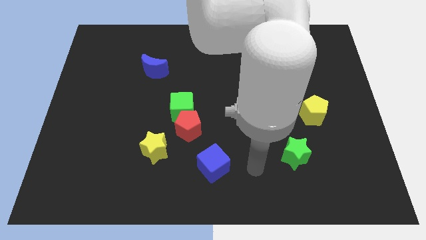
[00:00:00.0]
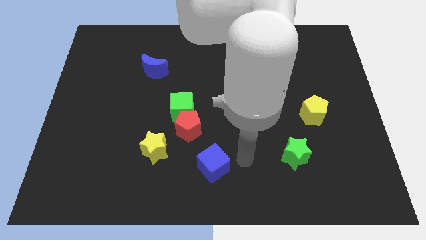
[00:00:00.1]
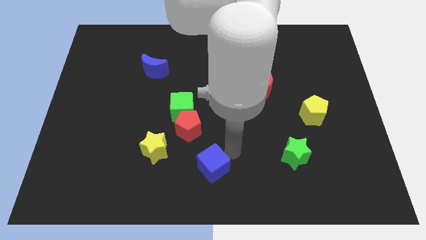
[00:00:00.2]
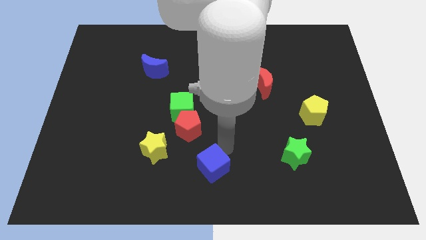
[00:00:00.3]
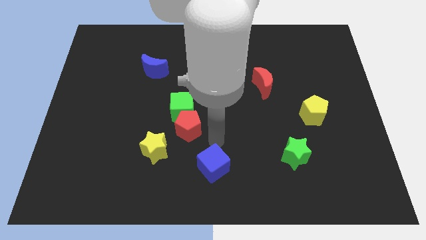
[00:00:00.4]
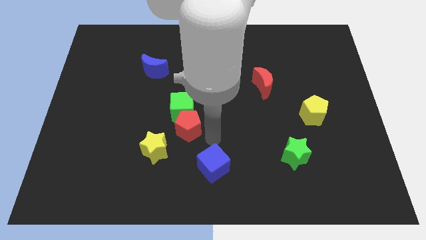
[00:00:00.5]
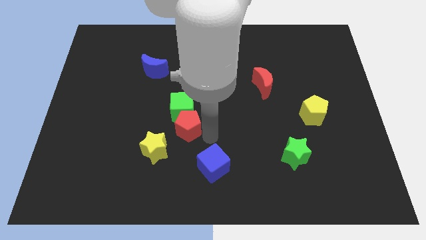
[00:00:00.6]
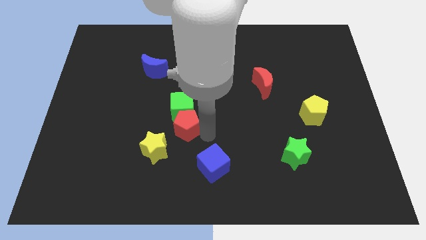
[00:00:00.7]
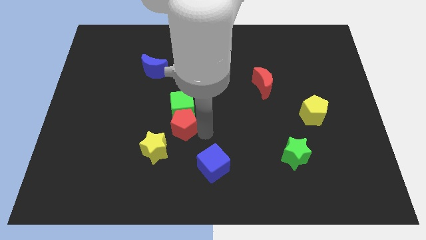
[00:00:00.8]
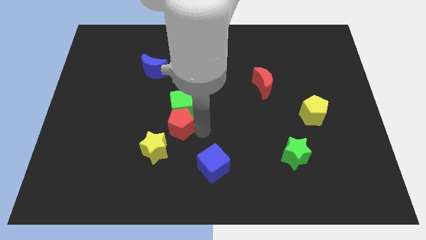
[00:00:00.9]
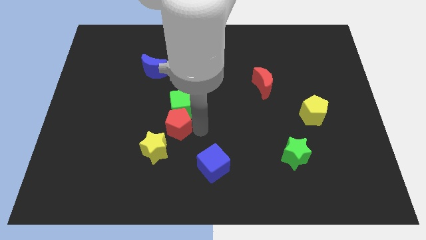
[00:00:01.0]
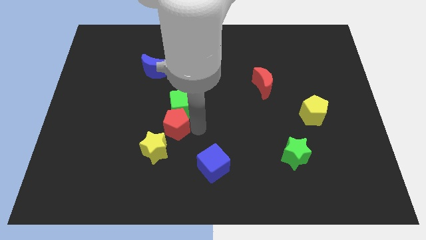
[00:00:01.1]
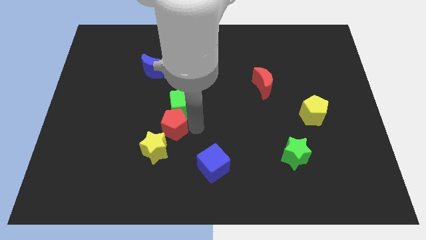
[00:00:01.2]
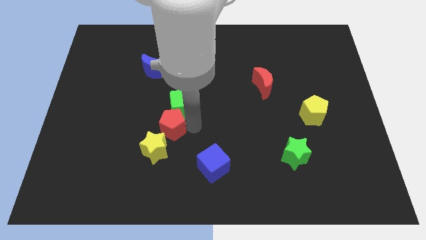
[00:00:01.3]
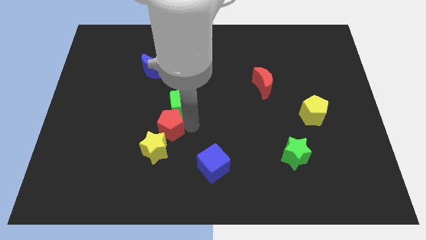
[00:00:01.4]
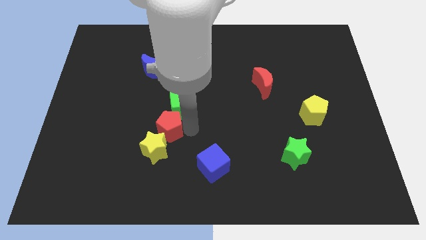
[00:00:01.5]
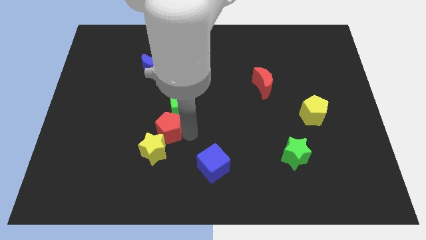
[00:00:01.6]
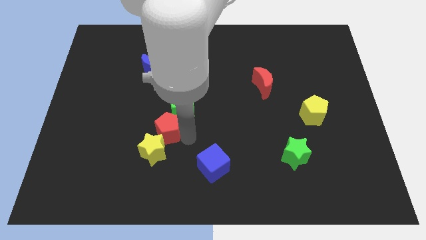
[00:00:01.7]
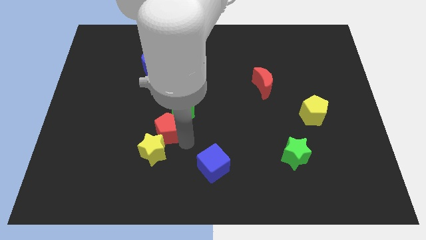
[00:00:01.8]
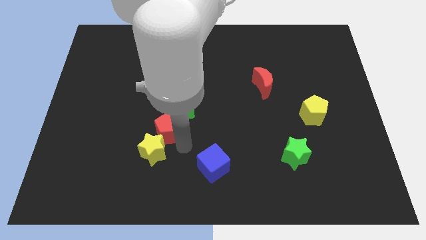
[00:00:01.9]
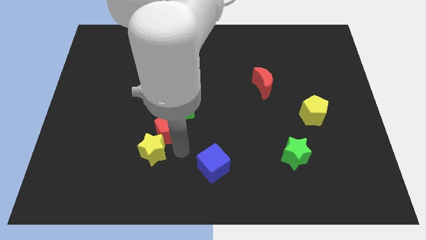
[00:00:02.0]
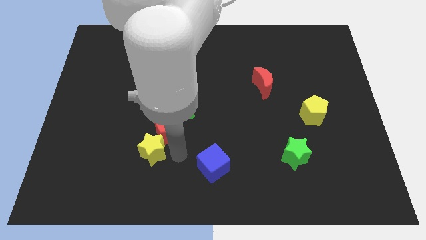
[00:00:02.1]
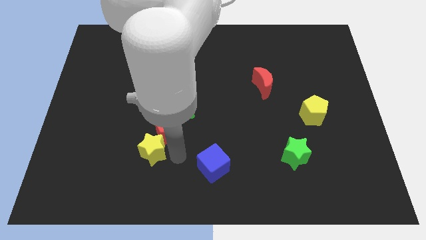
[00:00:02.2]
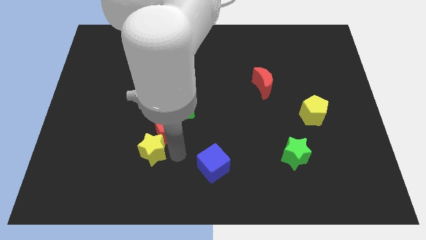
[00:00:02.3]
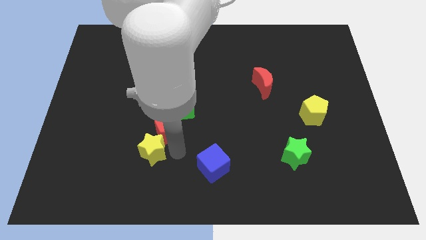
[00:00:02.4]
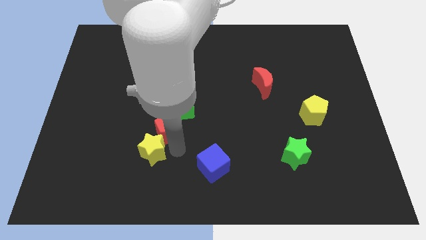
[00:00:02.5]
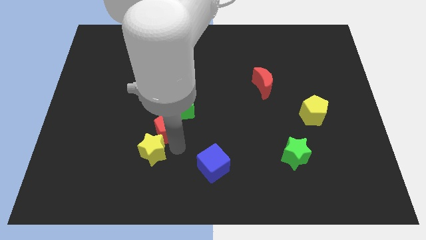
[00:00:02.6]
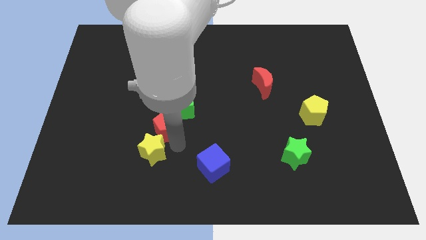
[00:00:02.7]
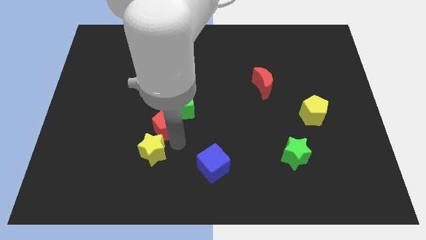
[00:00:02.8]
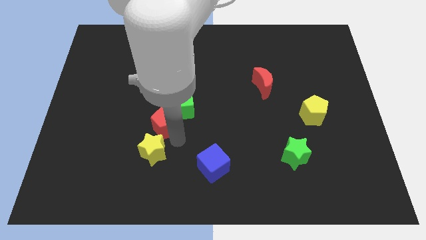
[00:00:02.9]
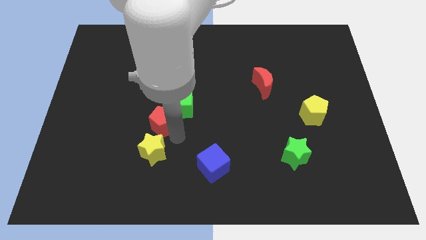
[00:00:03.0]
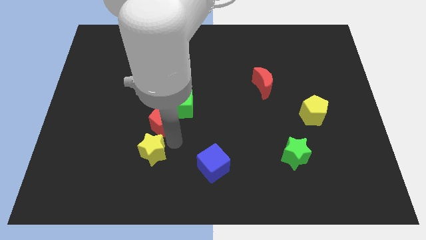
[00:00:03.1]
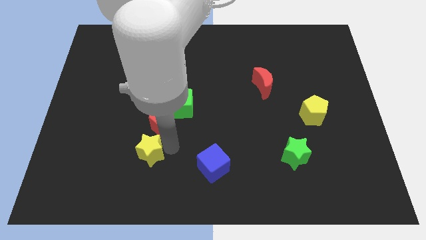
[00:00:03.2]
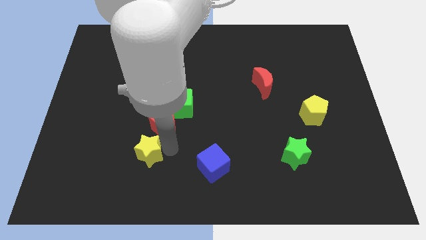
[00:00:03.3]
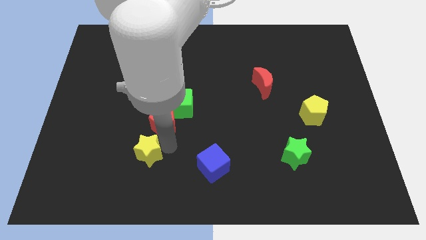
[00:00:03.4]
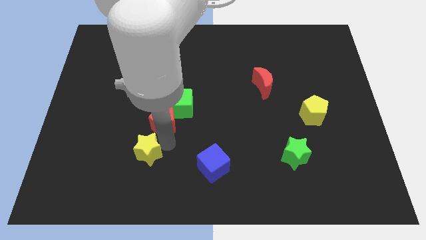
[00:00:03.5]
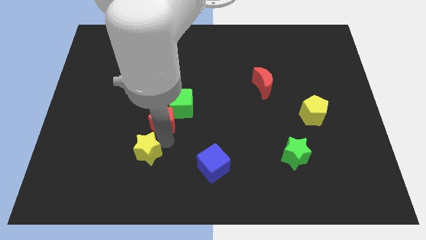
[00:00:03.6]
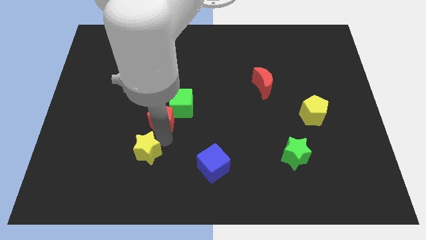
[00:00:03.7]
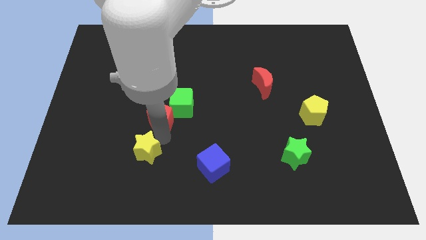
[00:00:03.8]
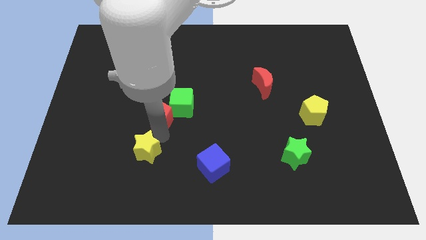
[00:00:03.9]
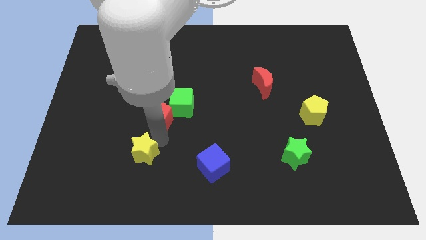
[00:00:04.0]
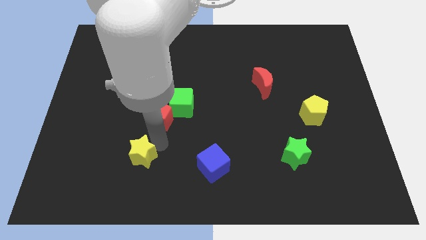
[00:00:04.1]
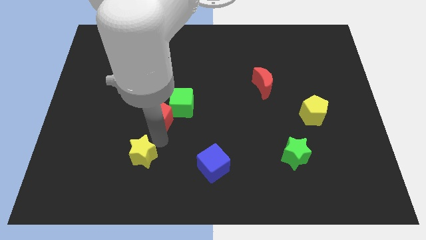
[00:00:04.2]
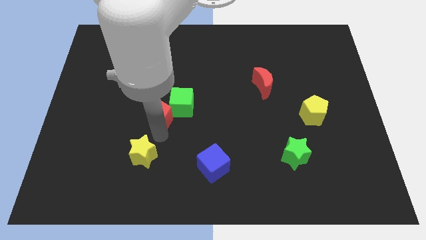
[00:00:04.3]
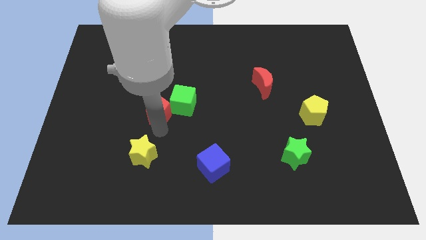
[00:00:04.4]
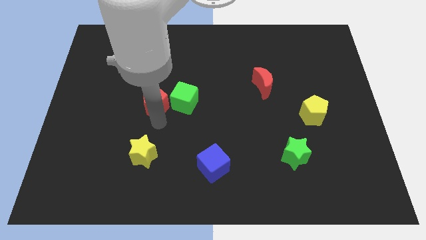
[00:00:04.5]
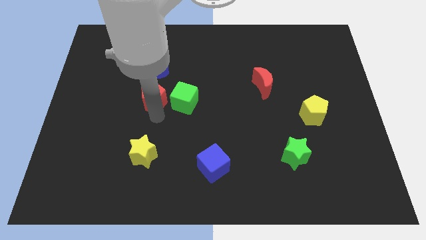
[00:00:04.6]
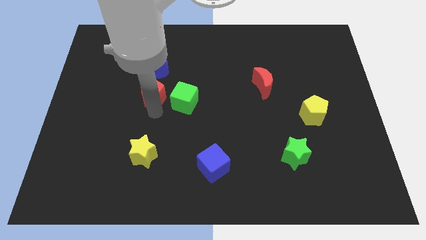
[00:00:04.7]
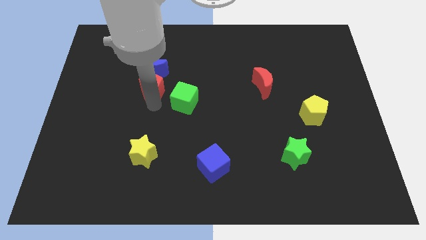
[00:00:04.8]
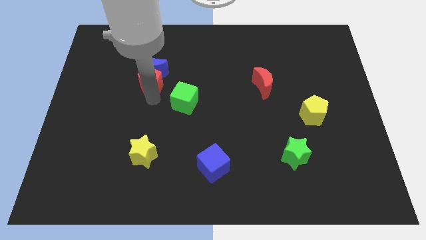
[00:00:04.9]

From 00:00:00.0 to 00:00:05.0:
slide the red pentagon next to the blue moon

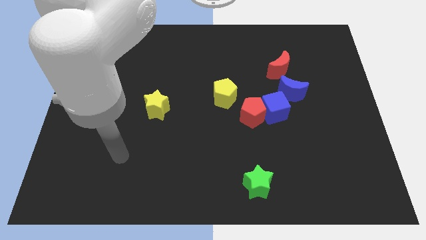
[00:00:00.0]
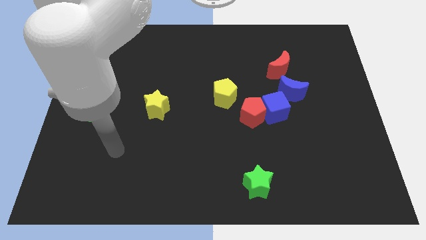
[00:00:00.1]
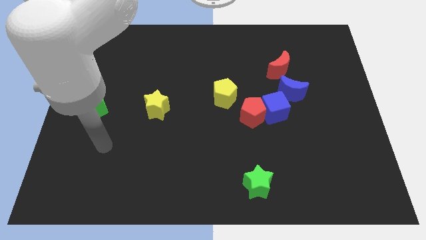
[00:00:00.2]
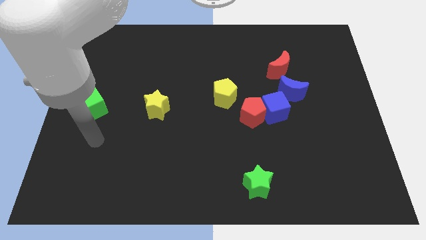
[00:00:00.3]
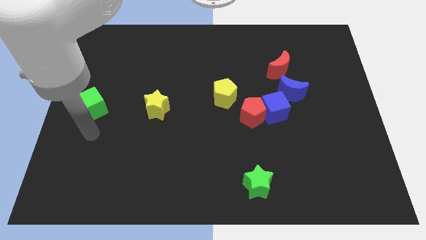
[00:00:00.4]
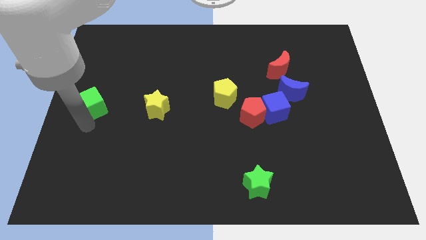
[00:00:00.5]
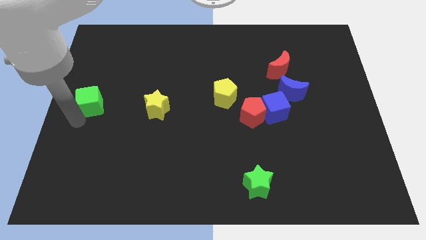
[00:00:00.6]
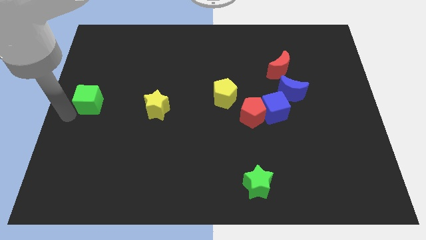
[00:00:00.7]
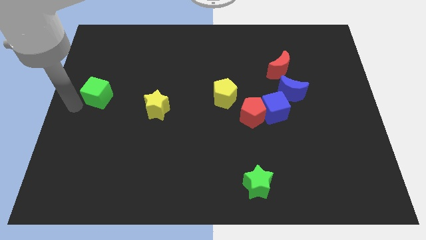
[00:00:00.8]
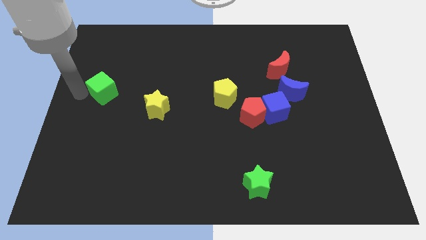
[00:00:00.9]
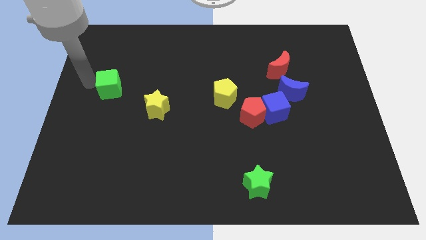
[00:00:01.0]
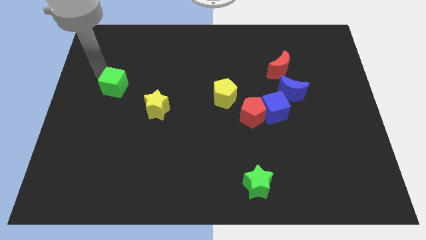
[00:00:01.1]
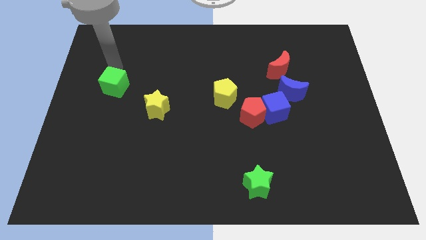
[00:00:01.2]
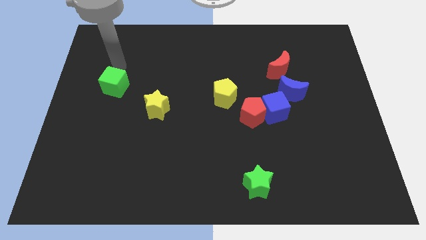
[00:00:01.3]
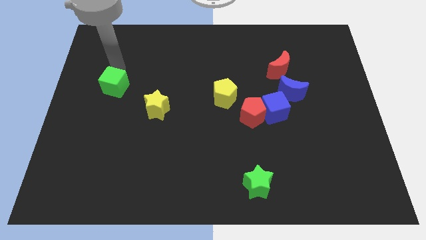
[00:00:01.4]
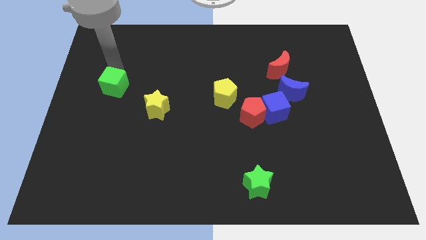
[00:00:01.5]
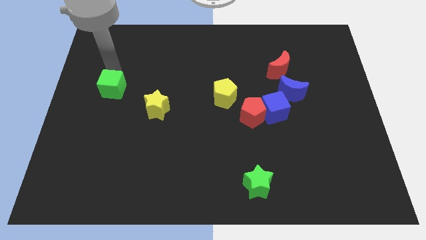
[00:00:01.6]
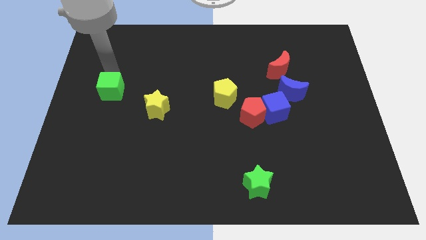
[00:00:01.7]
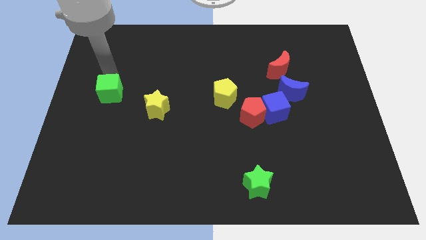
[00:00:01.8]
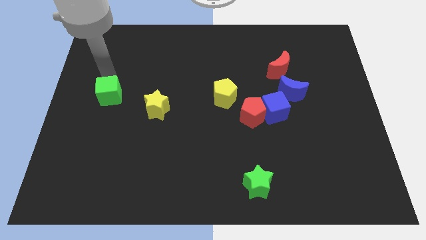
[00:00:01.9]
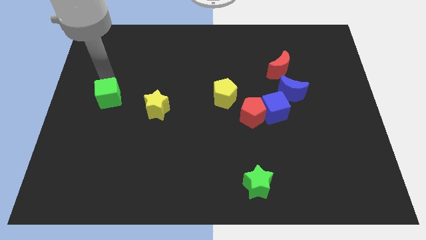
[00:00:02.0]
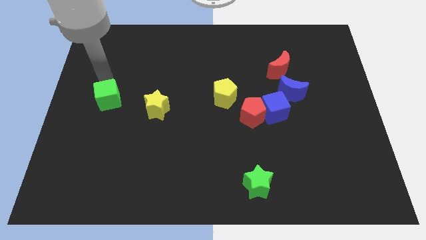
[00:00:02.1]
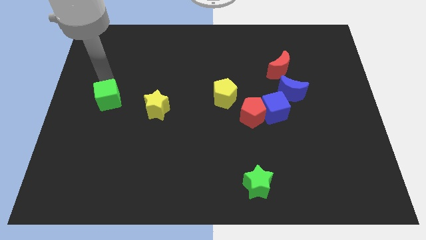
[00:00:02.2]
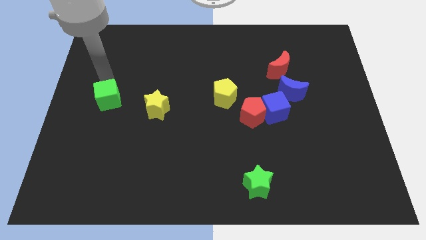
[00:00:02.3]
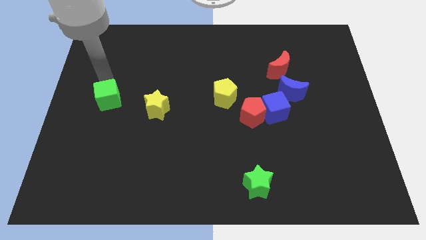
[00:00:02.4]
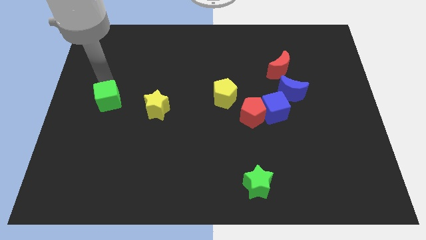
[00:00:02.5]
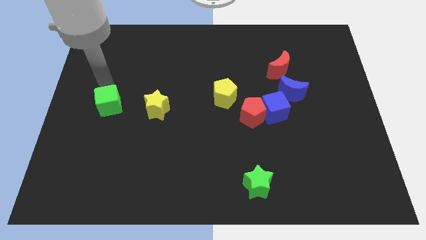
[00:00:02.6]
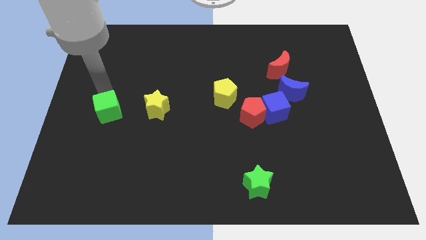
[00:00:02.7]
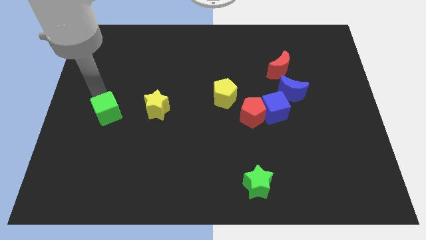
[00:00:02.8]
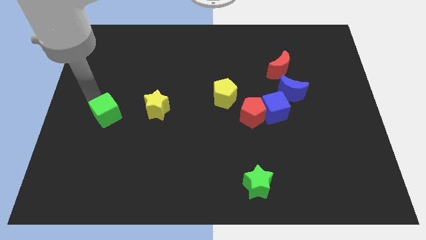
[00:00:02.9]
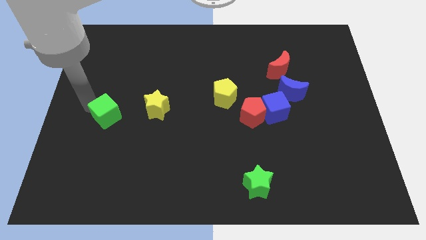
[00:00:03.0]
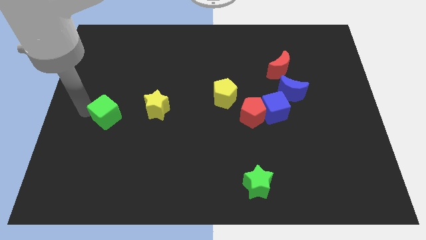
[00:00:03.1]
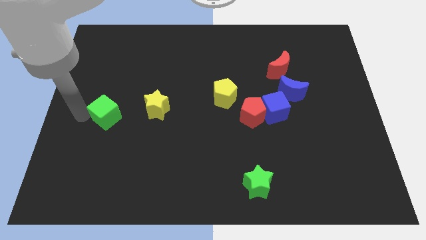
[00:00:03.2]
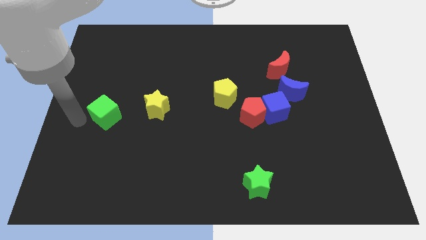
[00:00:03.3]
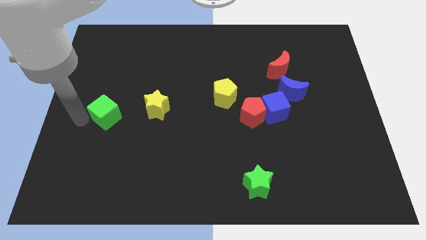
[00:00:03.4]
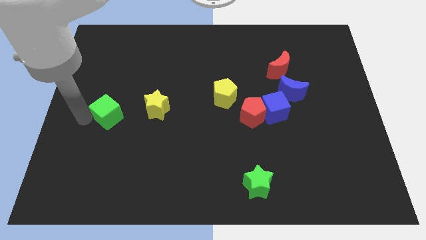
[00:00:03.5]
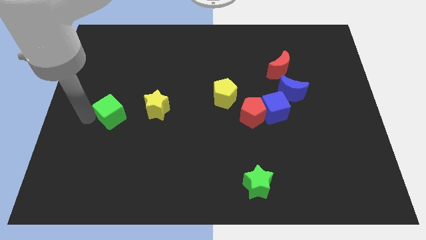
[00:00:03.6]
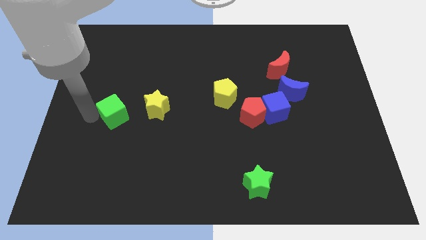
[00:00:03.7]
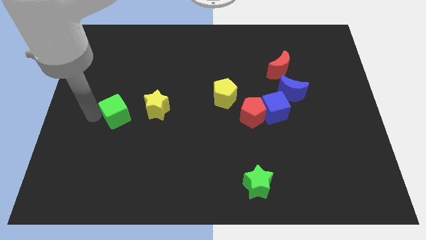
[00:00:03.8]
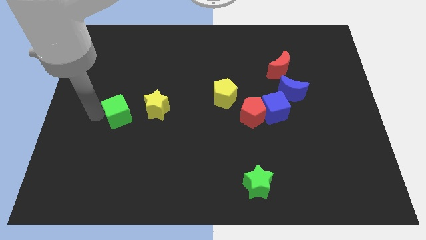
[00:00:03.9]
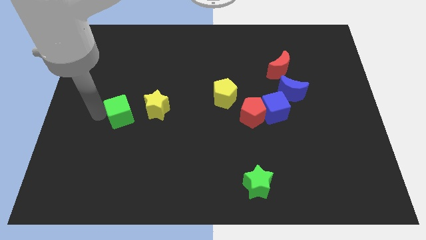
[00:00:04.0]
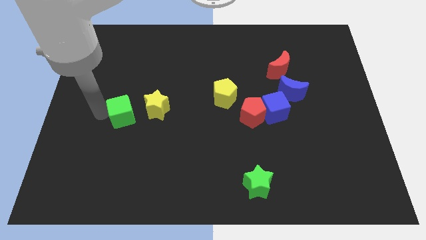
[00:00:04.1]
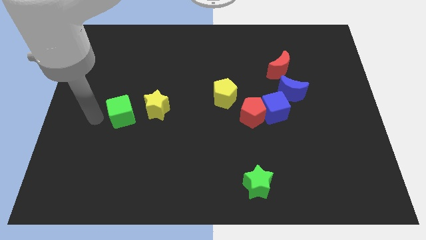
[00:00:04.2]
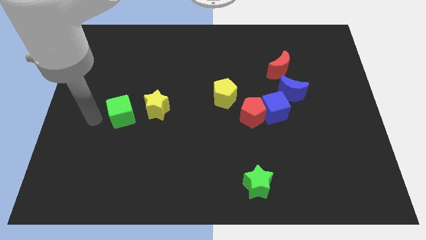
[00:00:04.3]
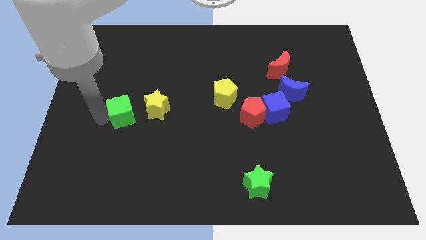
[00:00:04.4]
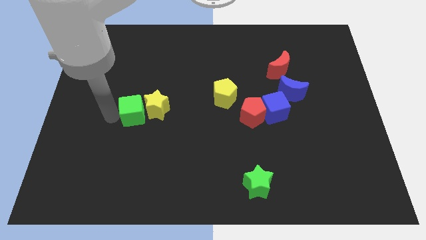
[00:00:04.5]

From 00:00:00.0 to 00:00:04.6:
push the green cube next to the yellow star
